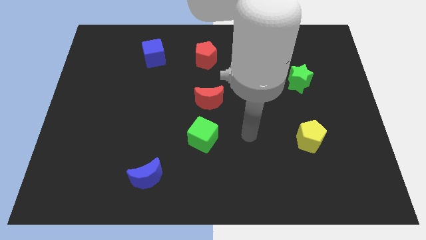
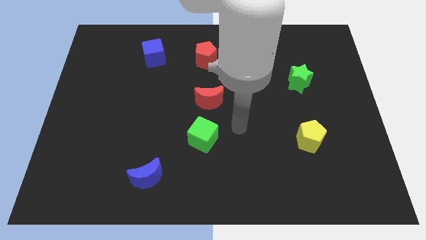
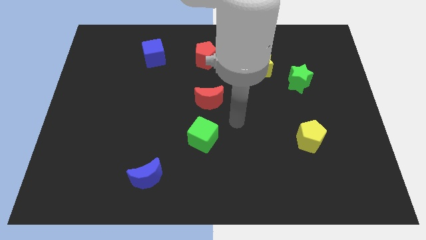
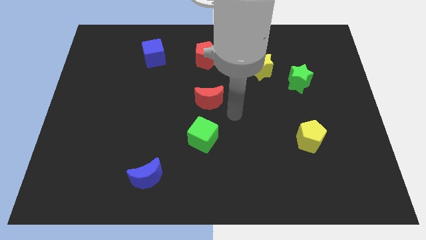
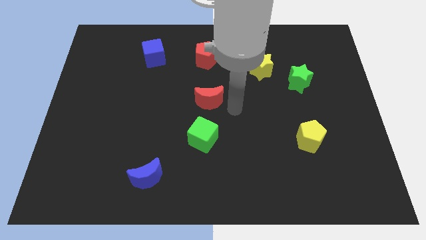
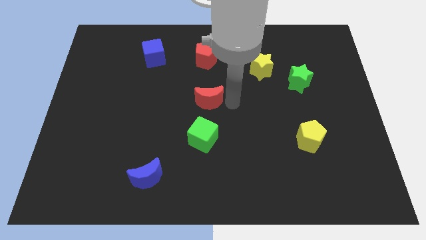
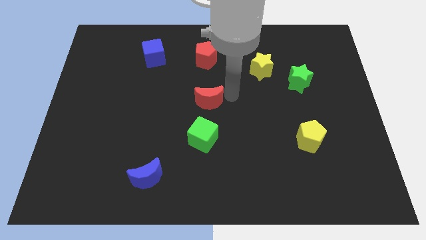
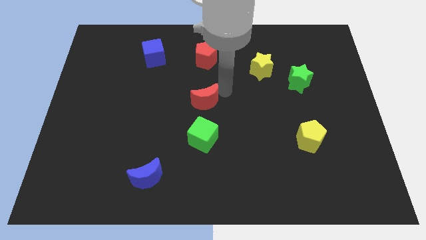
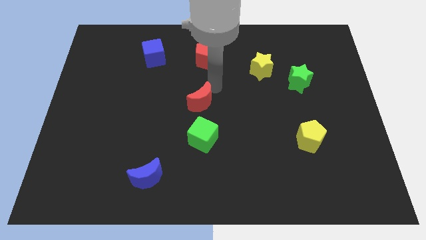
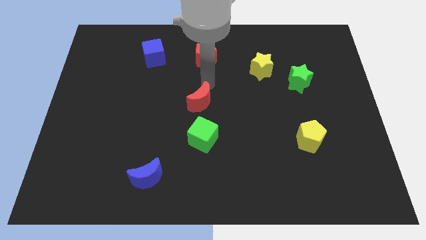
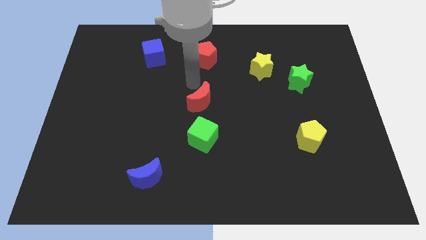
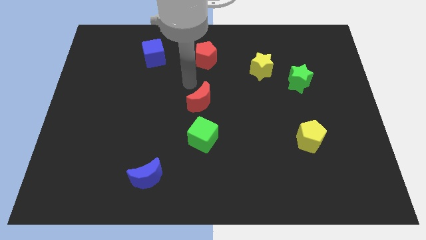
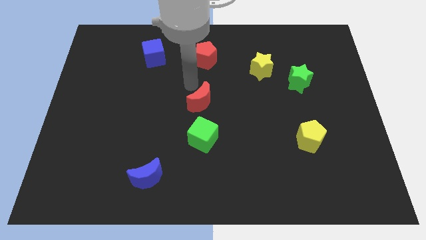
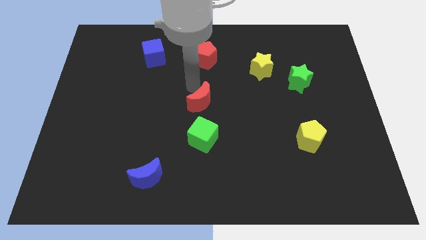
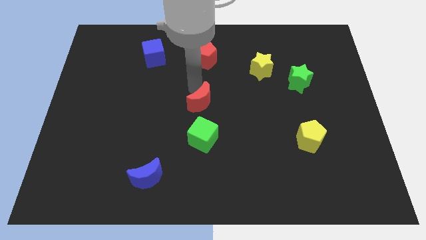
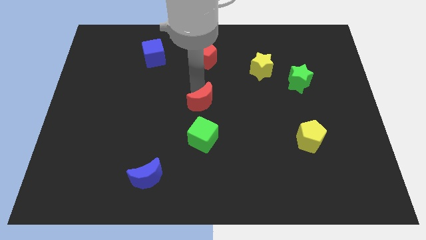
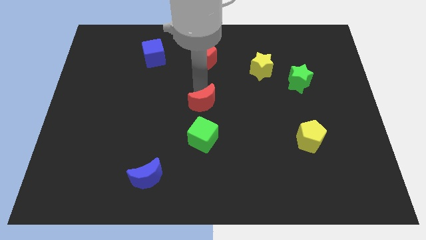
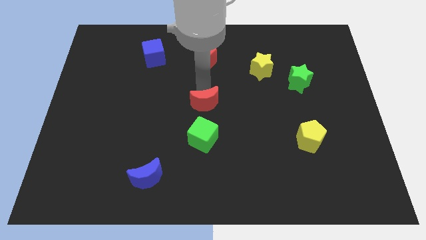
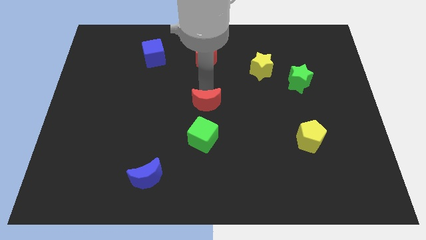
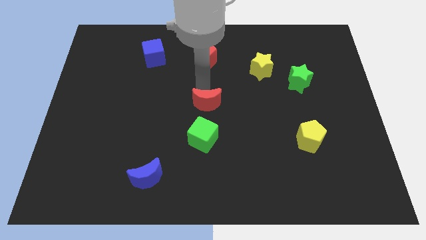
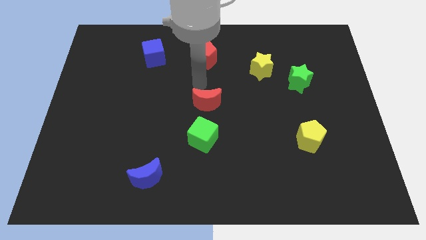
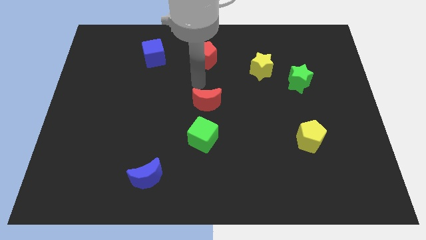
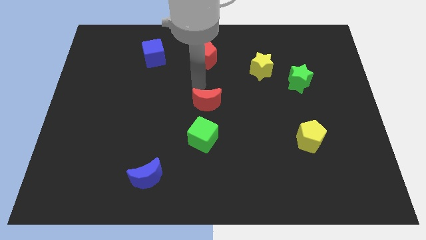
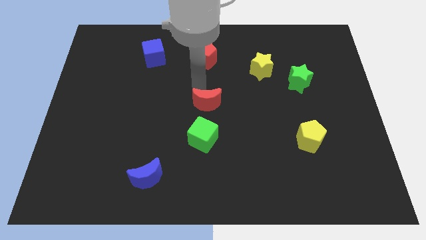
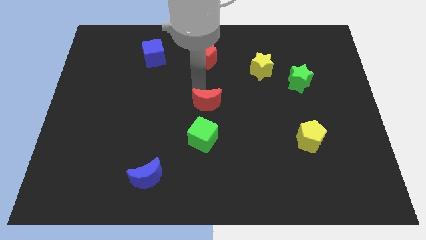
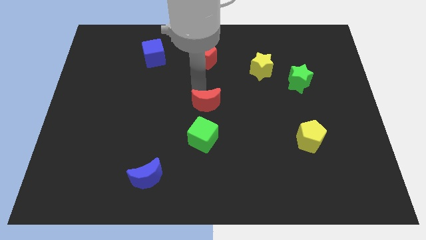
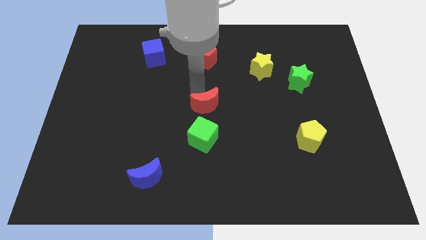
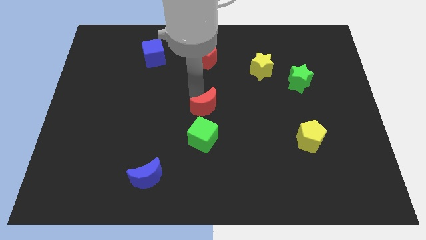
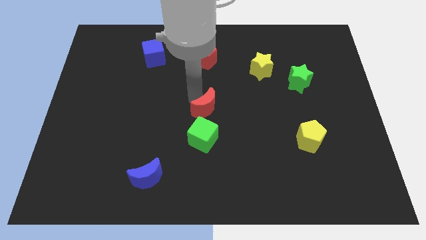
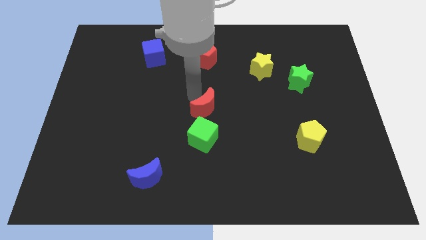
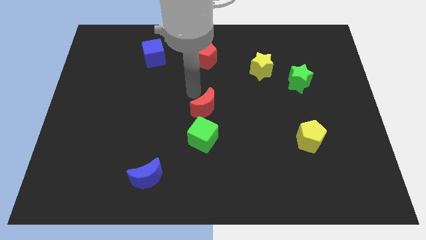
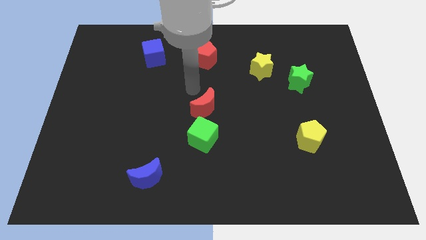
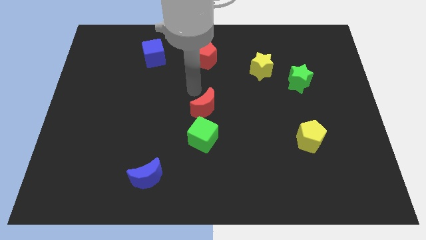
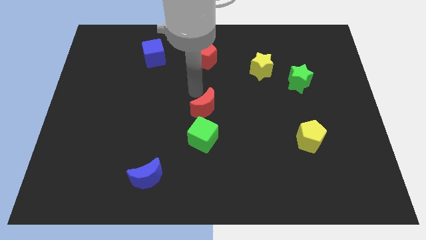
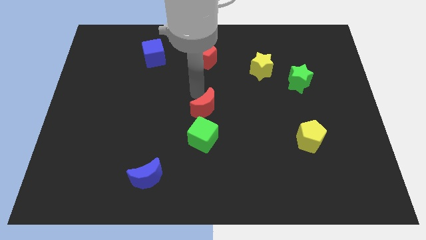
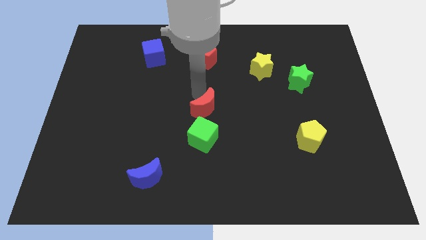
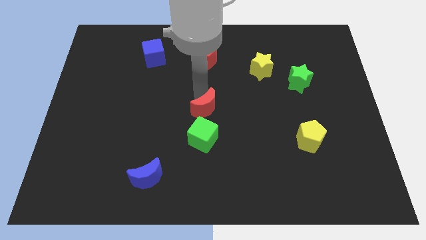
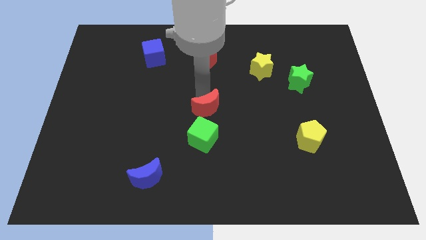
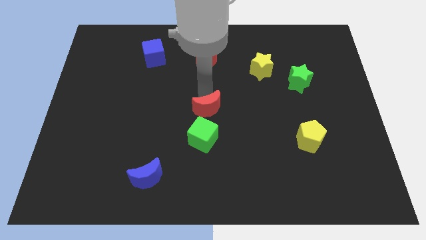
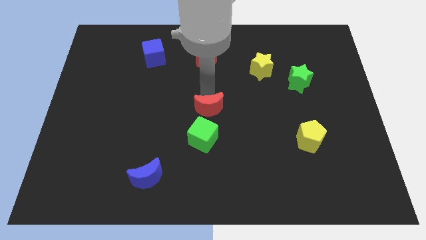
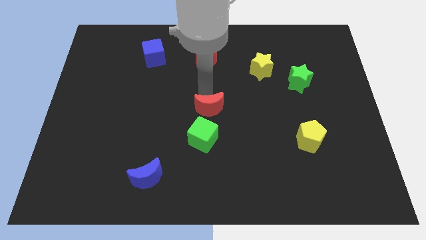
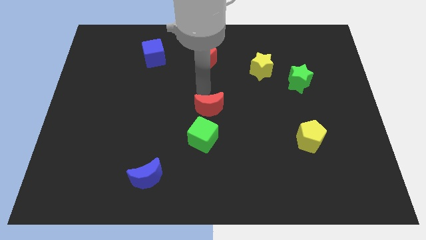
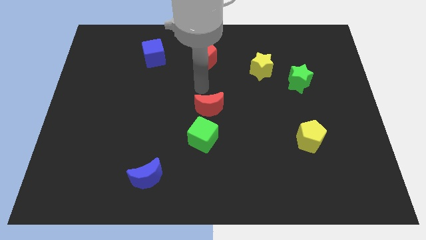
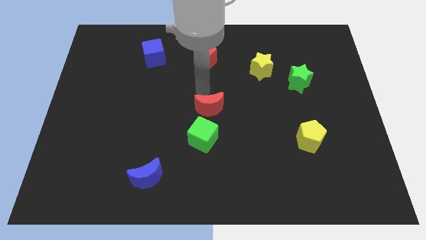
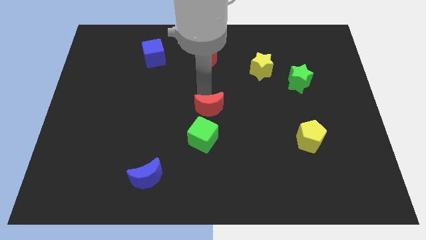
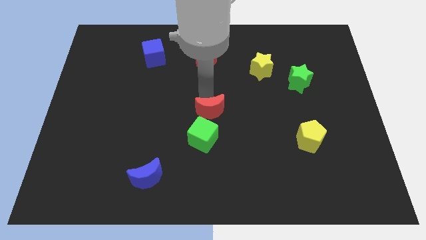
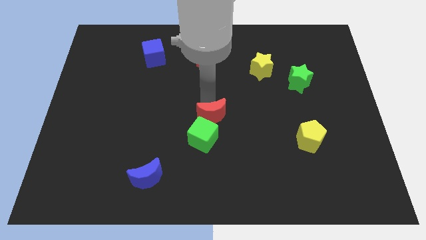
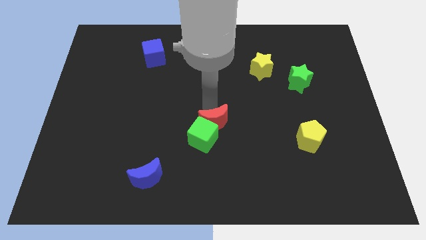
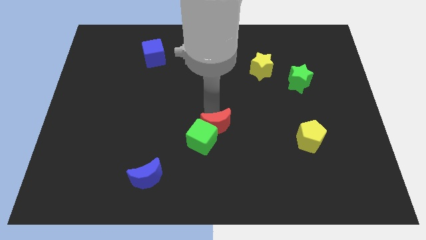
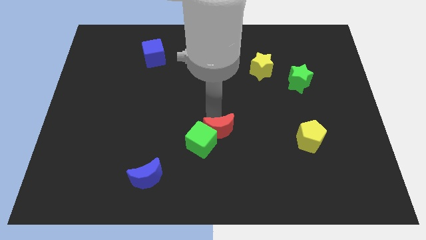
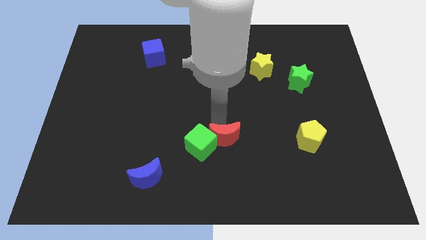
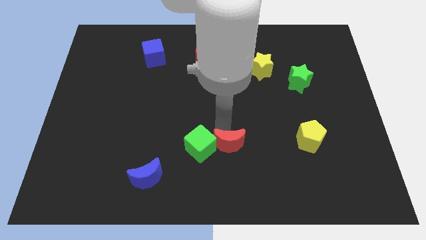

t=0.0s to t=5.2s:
move the red moon to the bottom right side of the green cube

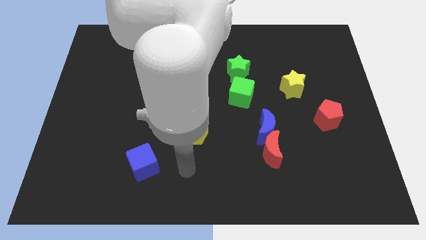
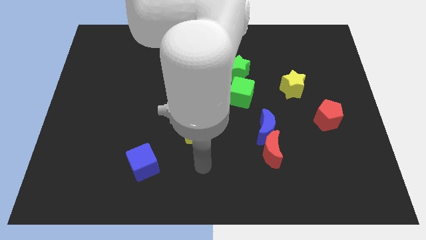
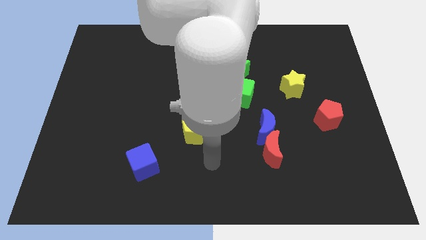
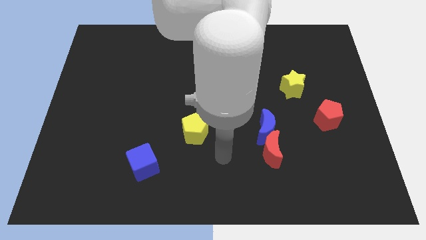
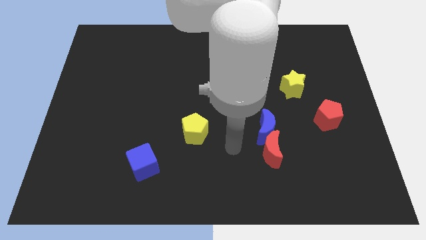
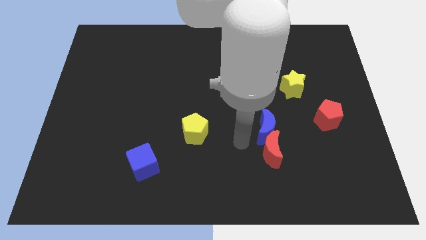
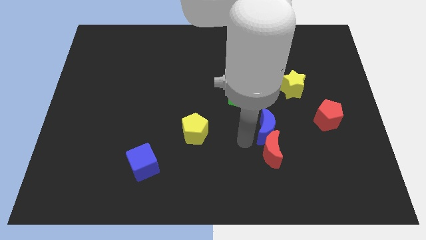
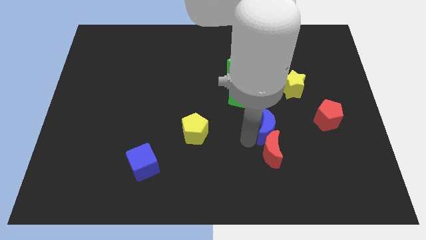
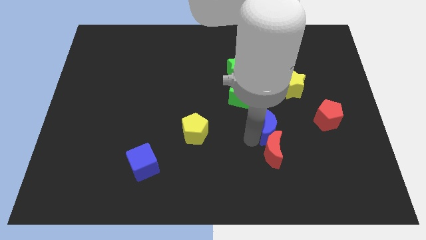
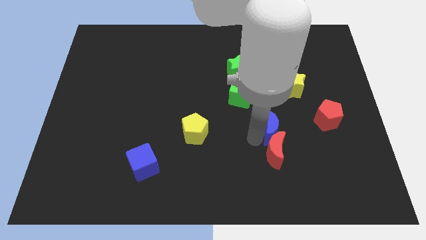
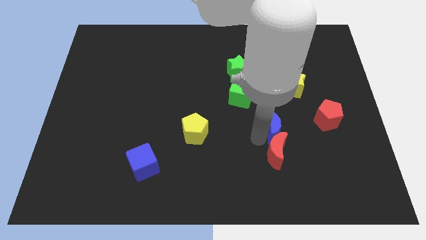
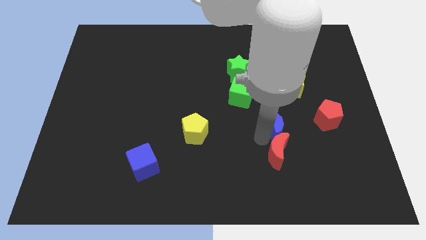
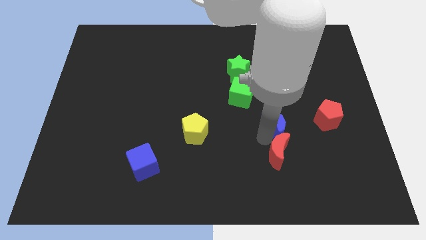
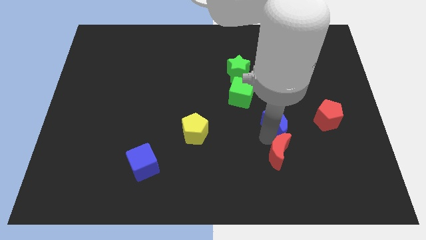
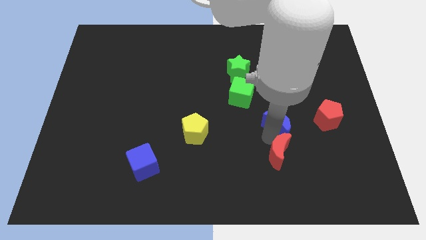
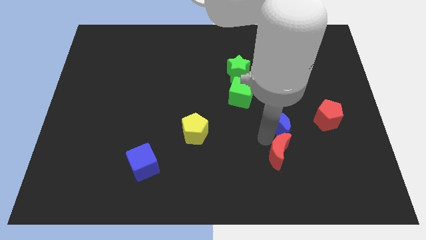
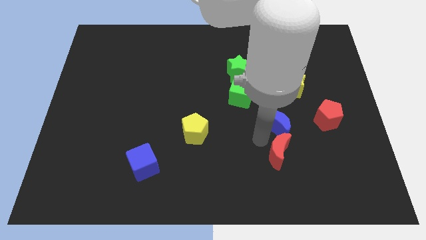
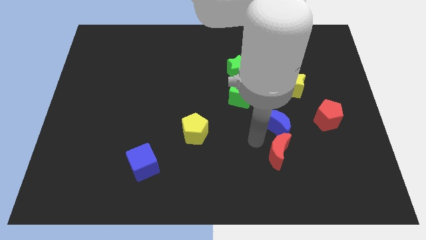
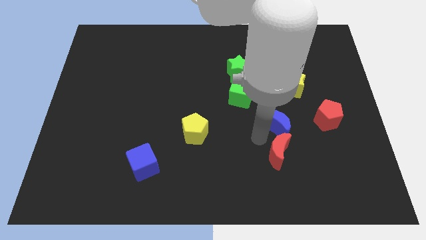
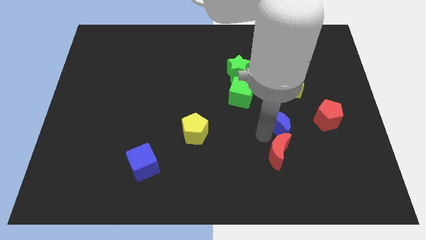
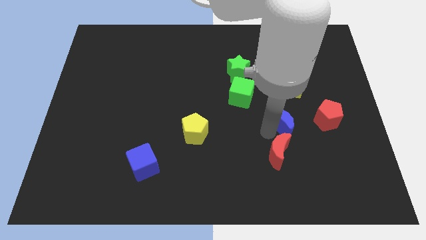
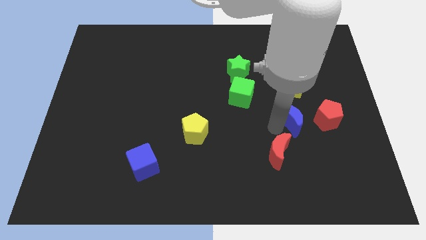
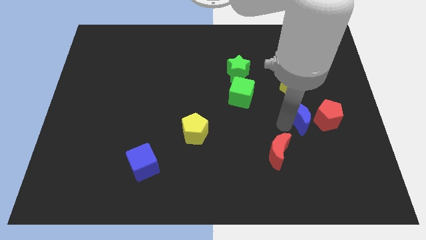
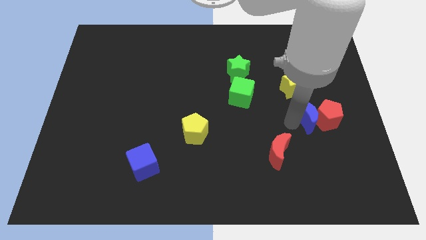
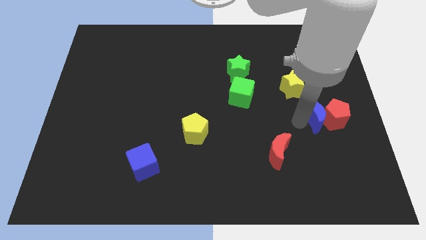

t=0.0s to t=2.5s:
slide the blue moon to the bottom right of the yellow star
